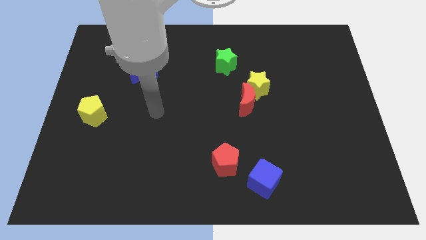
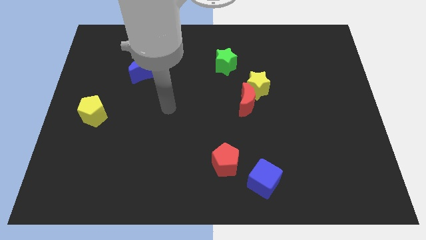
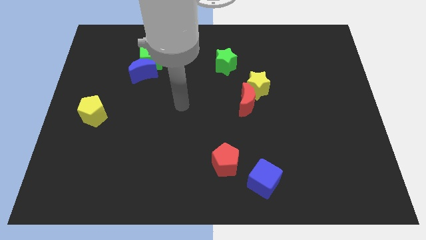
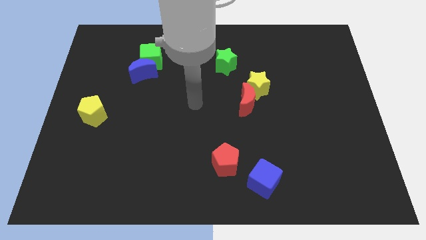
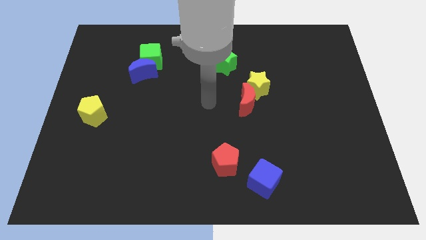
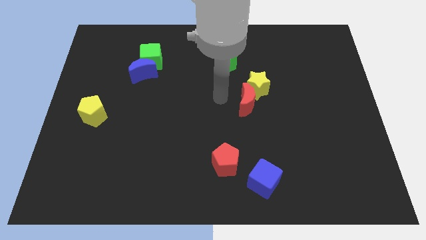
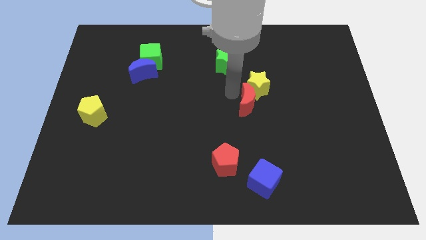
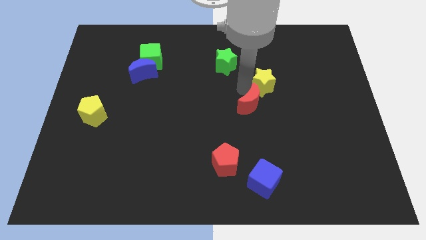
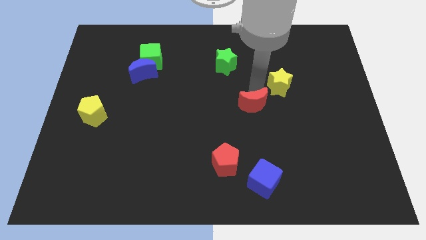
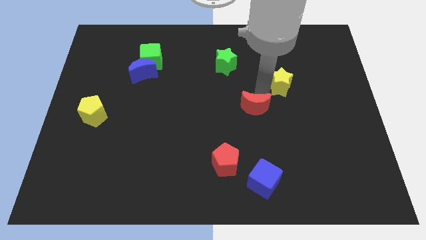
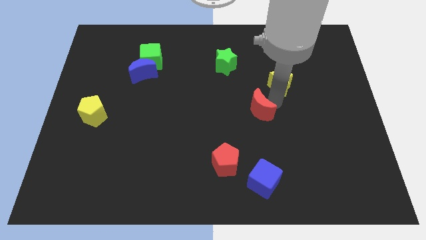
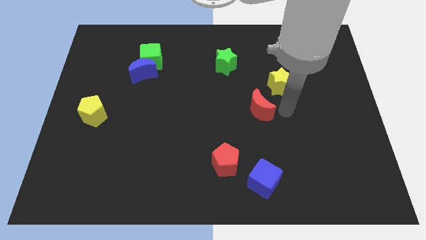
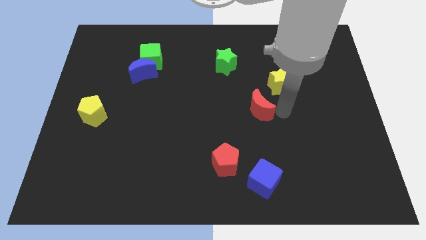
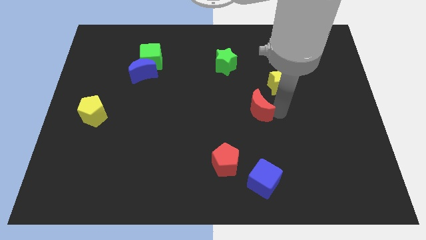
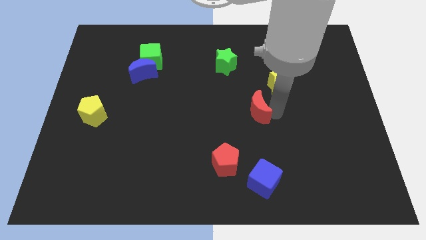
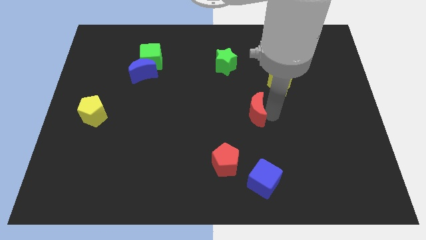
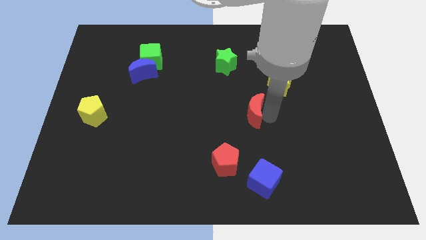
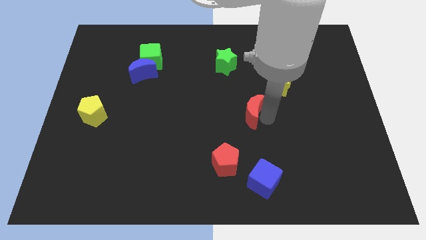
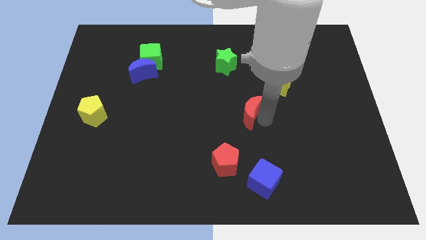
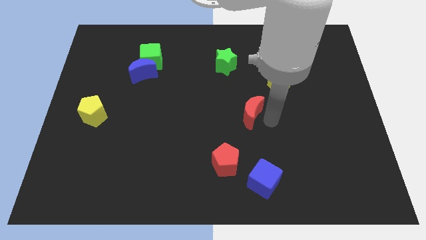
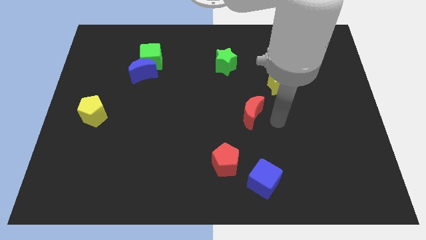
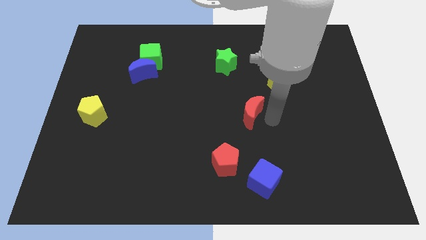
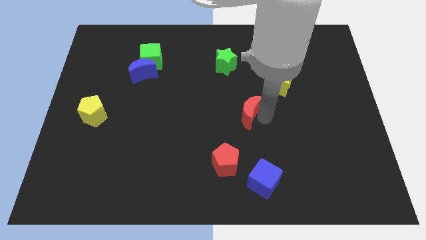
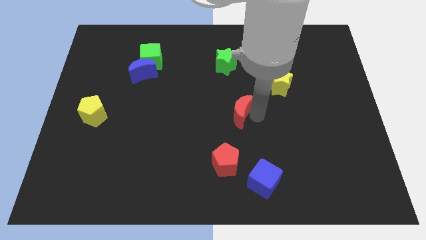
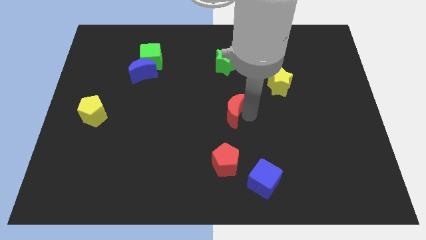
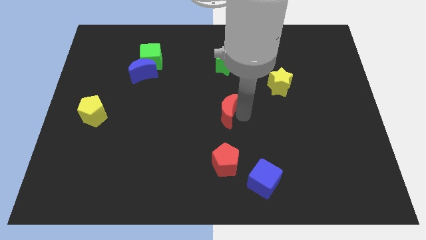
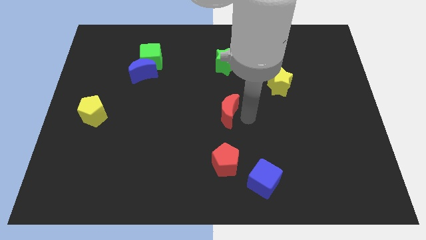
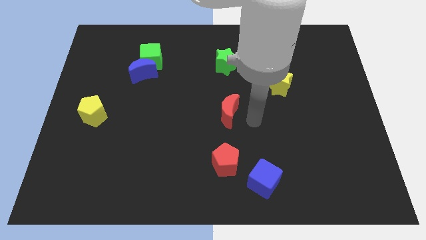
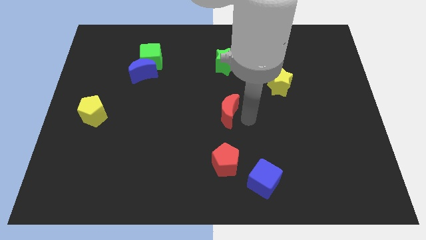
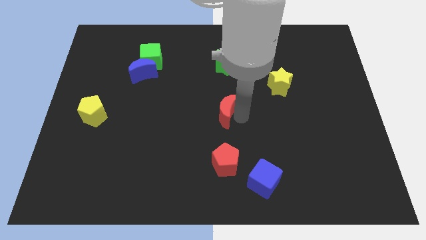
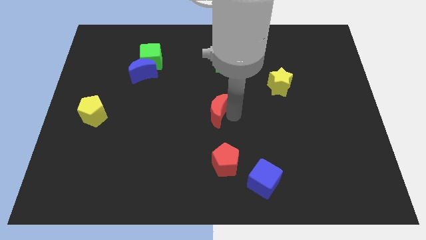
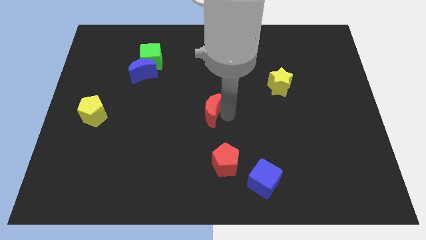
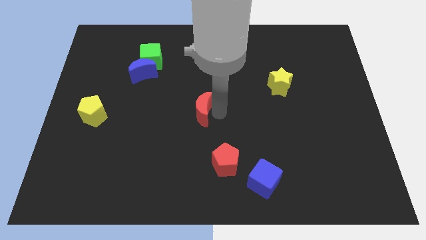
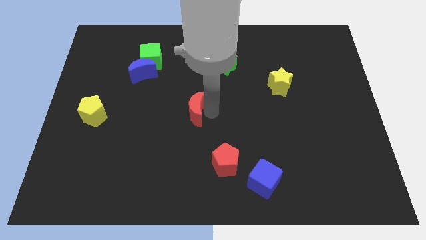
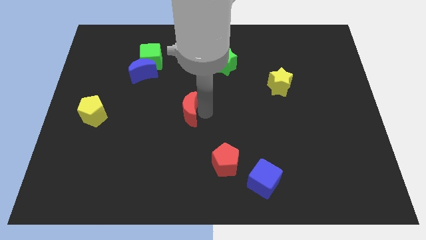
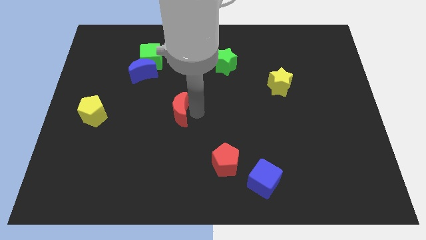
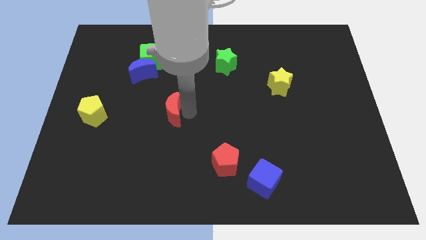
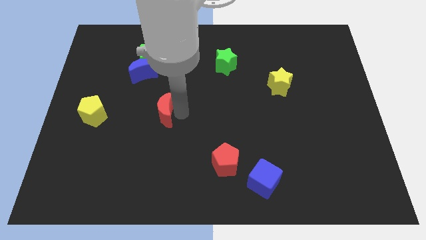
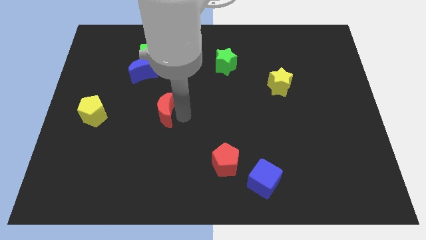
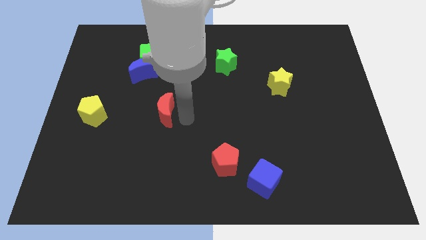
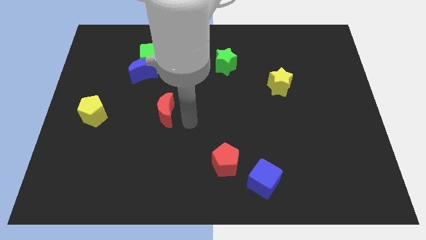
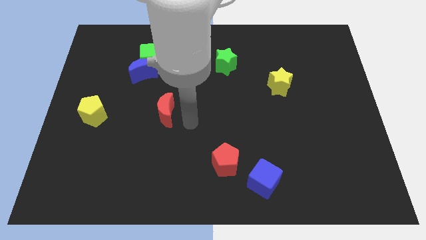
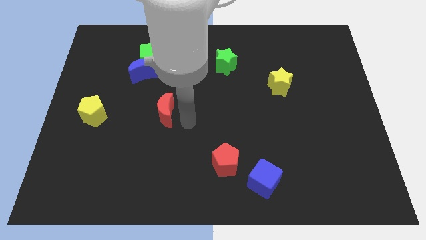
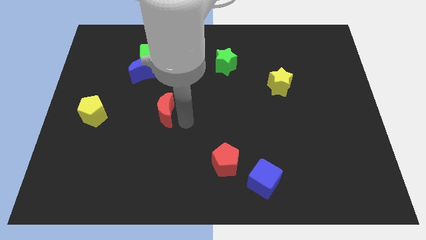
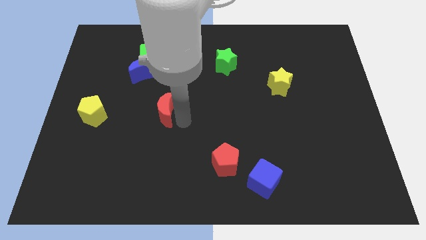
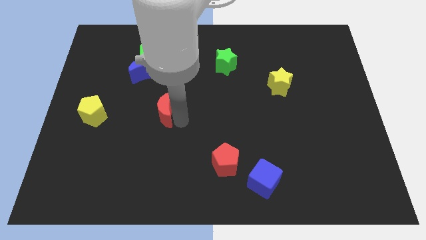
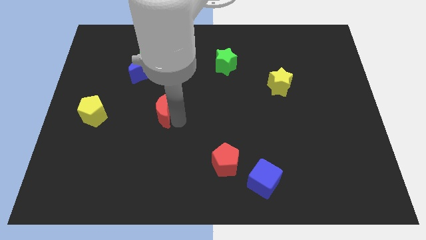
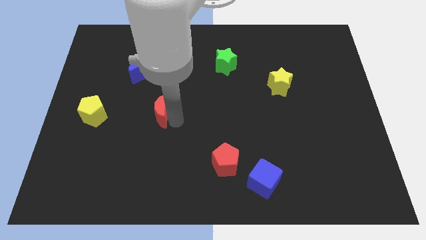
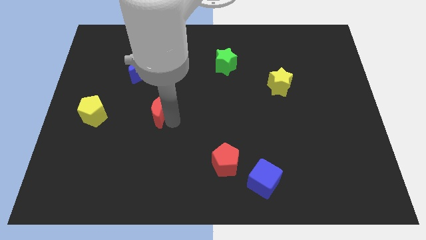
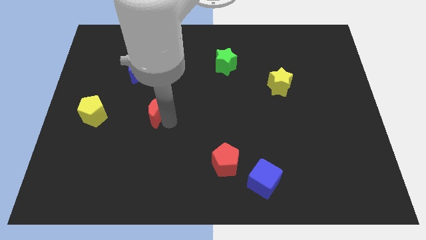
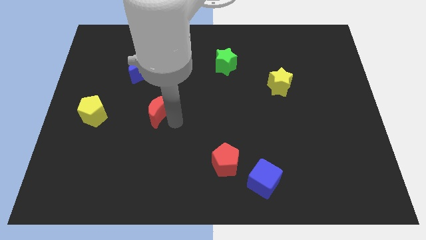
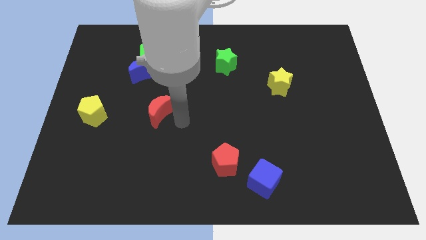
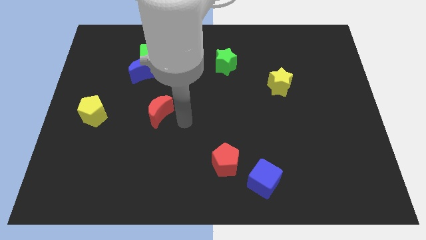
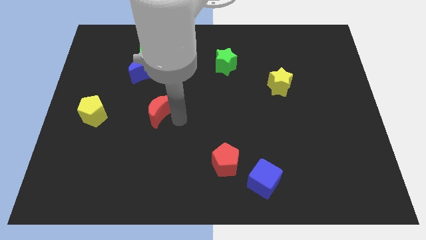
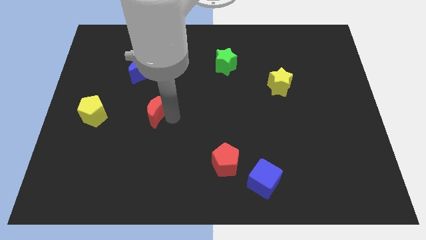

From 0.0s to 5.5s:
put the red moon to the bottom side of the blue moon

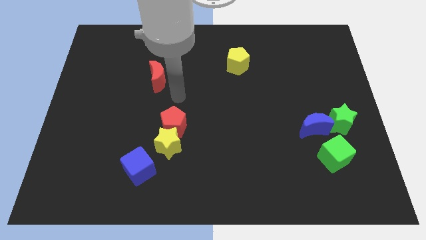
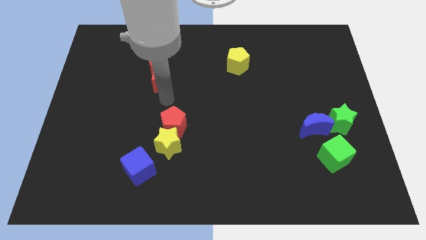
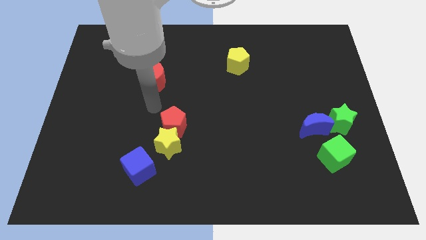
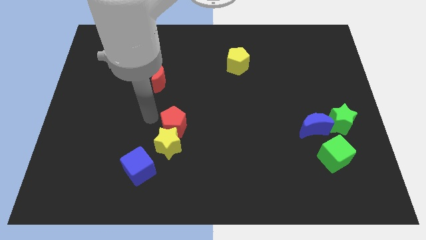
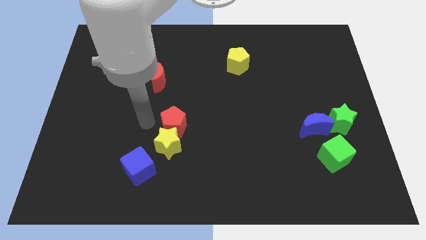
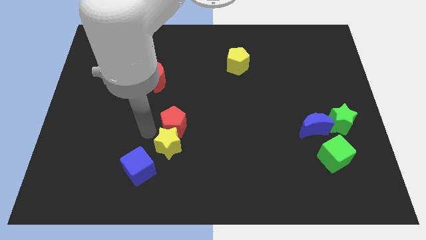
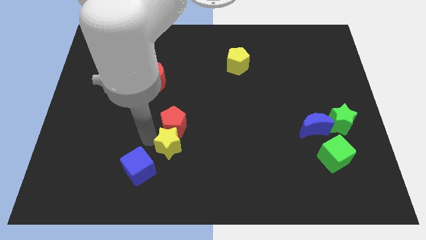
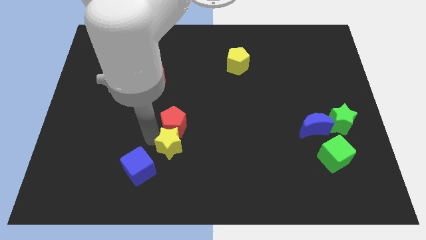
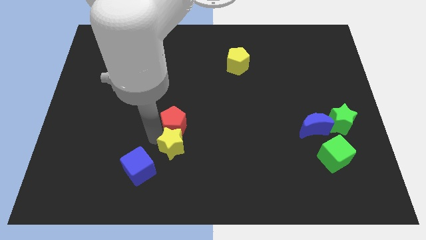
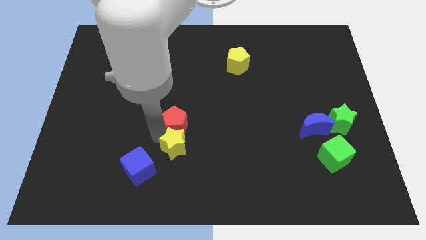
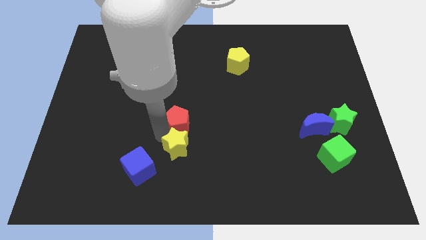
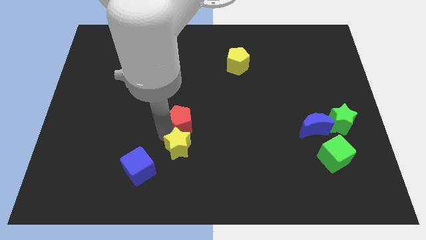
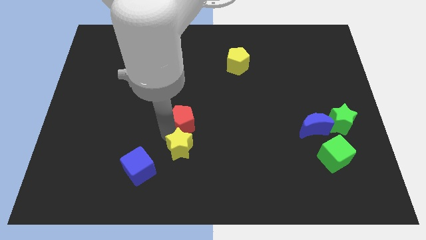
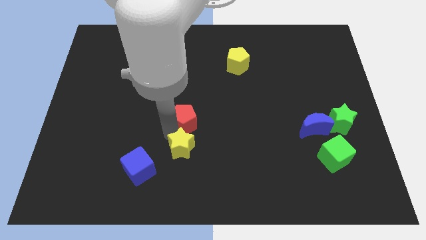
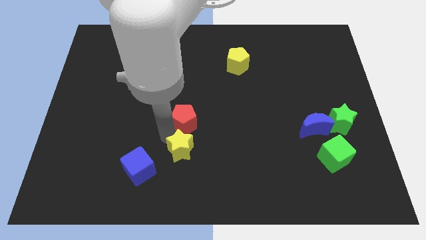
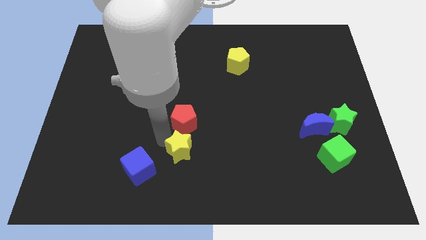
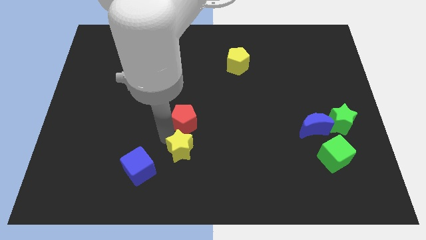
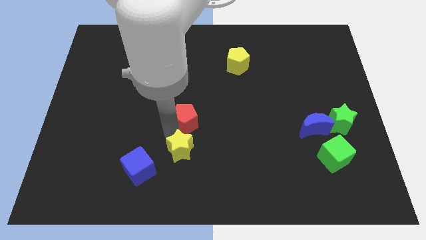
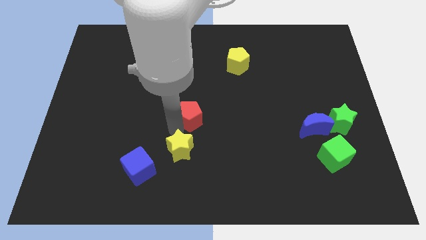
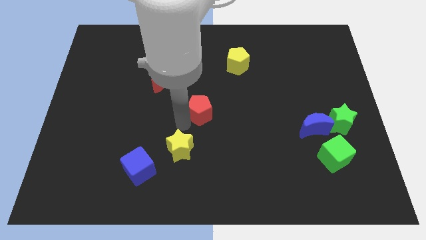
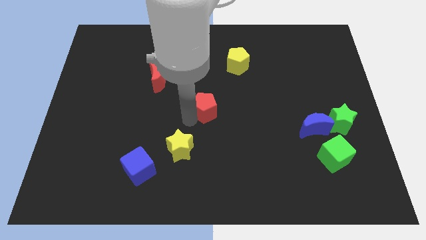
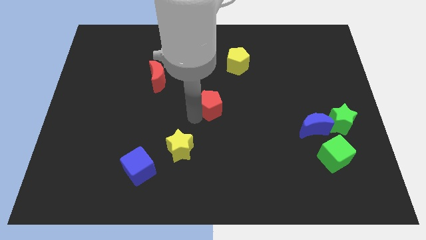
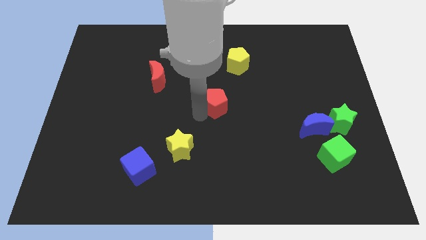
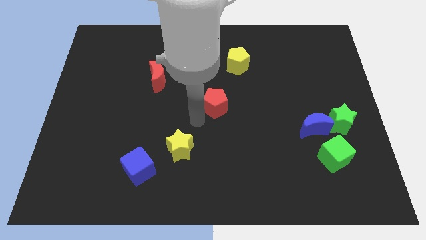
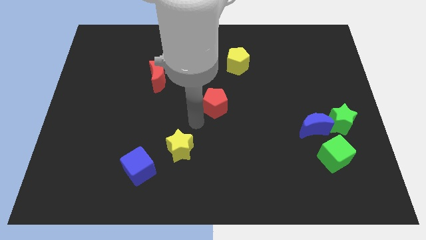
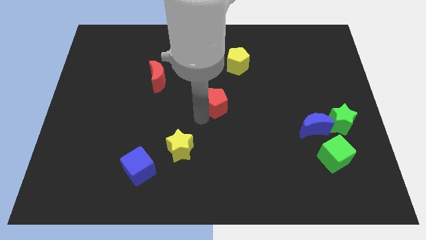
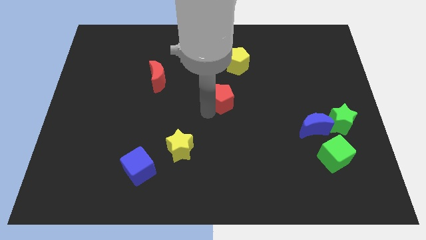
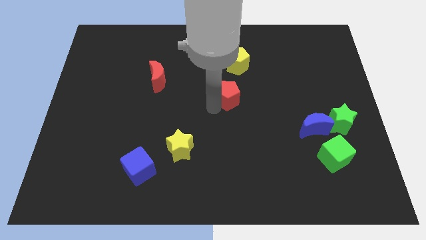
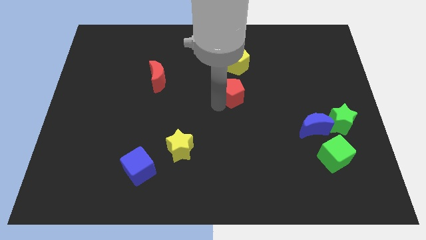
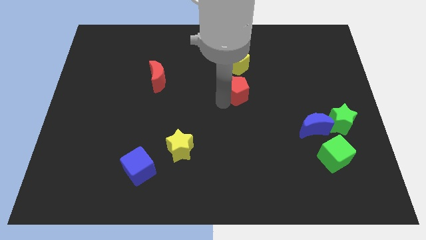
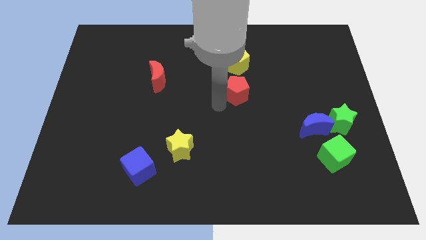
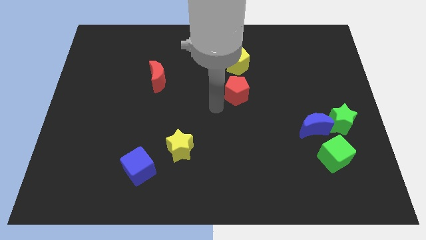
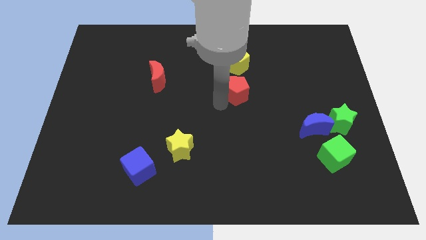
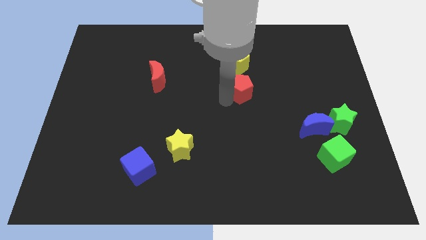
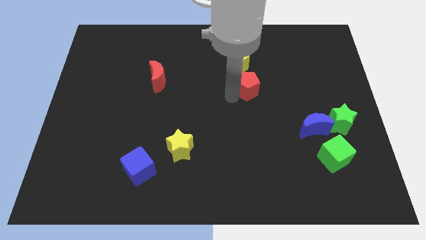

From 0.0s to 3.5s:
move the red pentagon to the bottom right of the yellow pentagon
